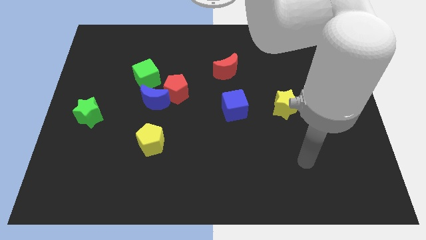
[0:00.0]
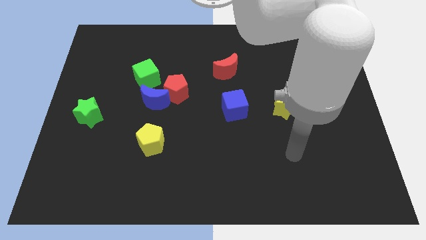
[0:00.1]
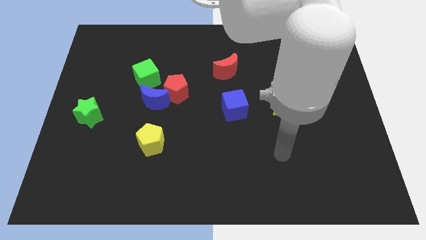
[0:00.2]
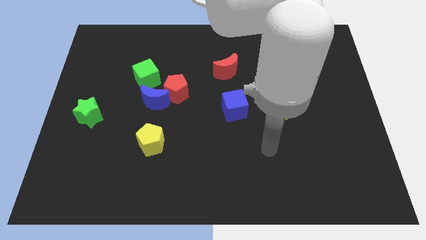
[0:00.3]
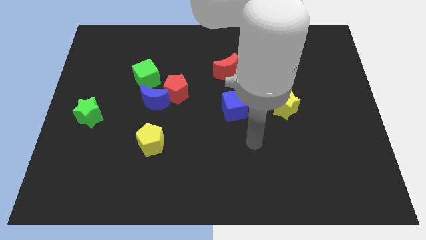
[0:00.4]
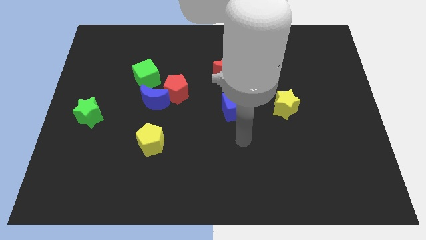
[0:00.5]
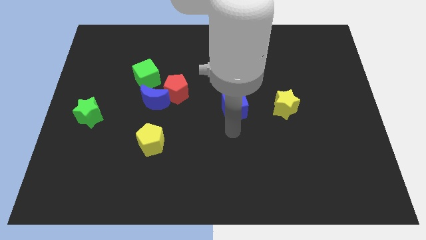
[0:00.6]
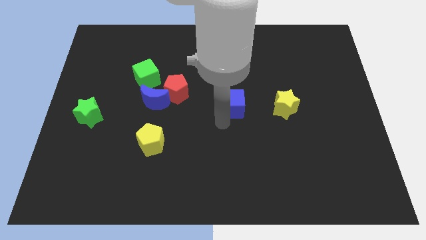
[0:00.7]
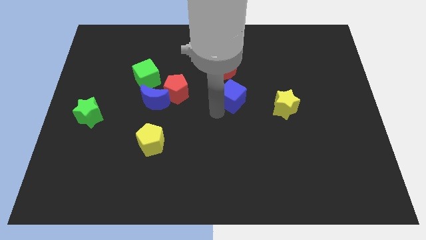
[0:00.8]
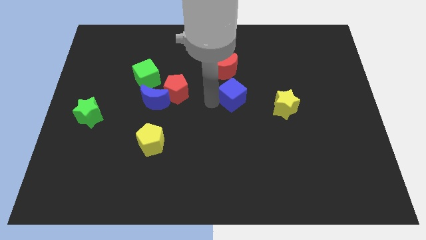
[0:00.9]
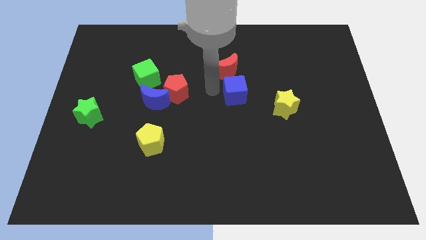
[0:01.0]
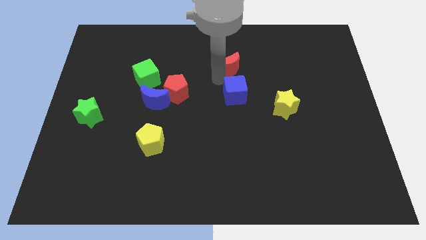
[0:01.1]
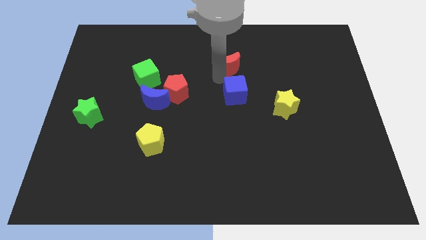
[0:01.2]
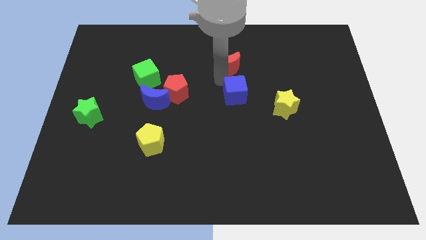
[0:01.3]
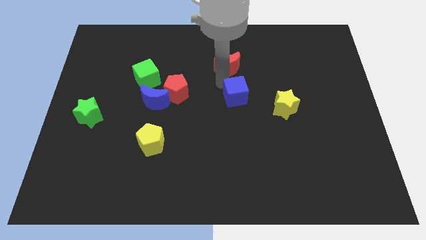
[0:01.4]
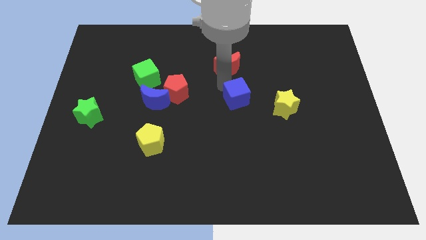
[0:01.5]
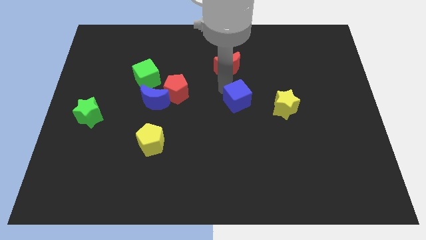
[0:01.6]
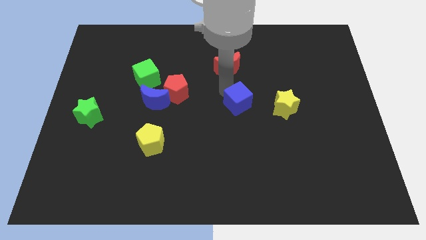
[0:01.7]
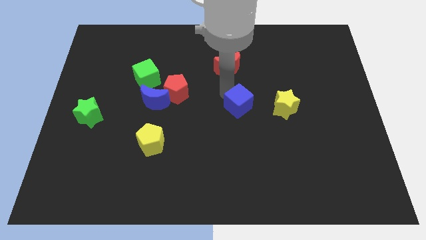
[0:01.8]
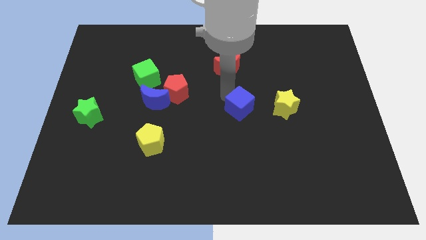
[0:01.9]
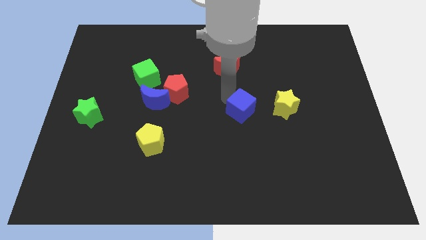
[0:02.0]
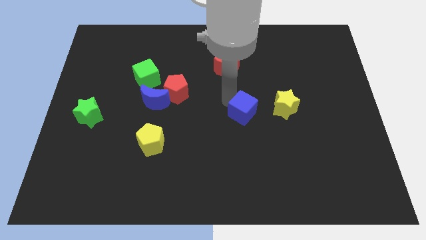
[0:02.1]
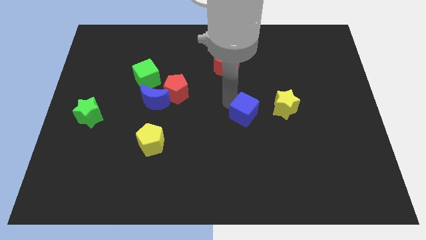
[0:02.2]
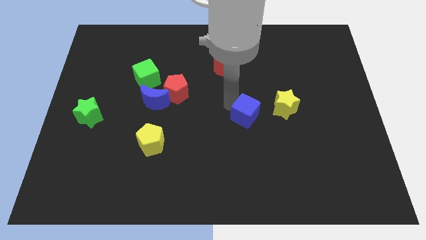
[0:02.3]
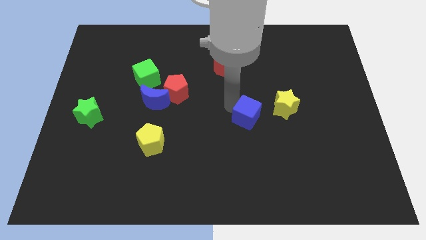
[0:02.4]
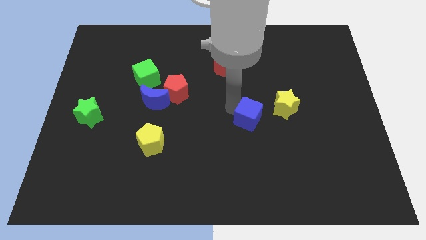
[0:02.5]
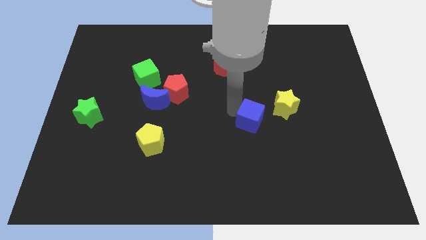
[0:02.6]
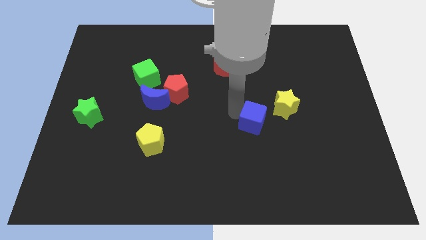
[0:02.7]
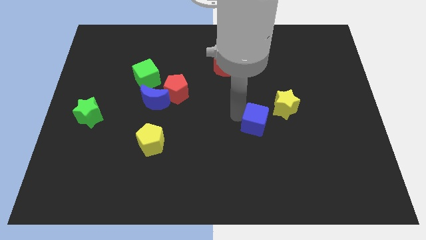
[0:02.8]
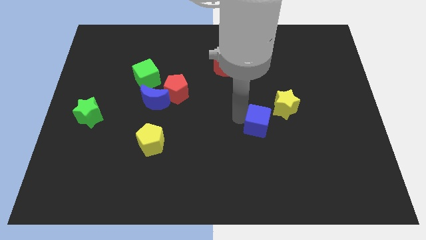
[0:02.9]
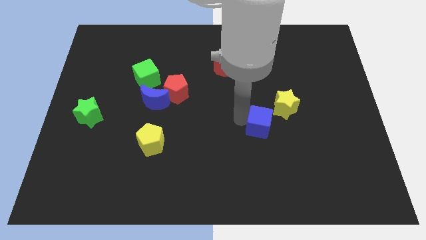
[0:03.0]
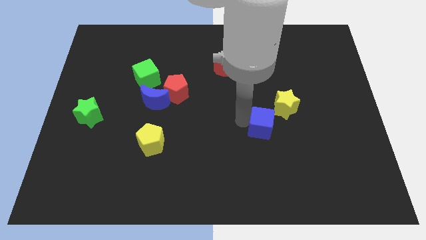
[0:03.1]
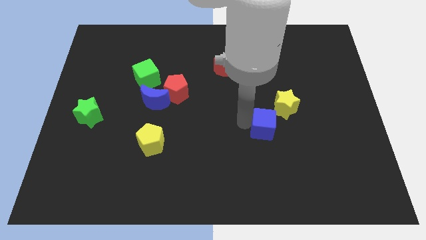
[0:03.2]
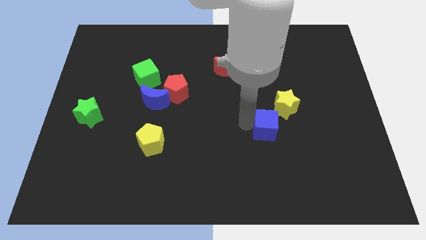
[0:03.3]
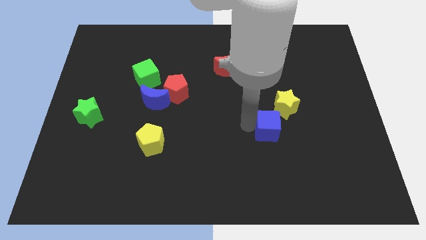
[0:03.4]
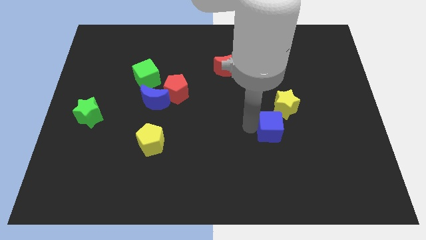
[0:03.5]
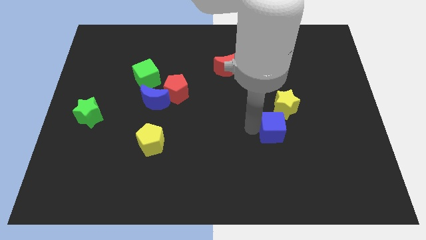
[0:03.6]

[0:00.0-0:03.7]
push the blue cube a little bit to the right

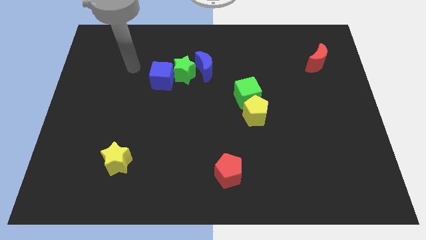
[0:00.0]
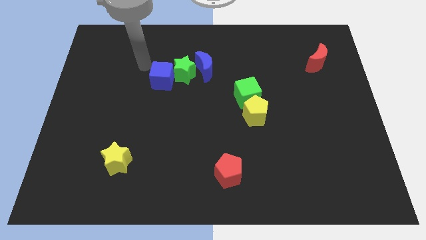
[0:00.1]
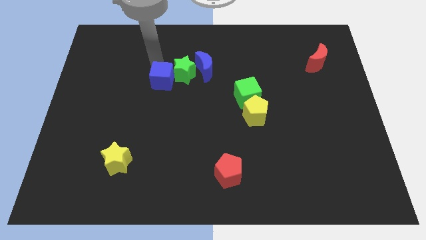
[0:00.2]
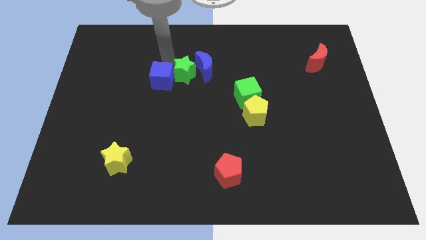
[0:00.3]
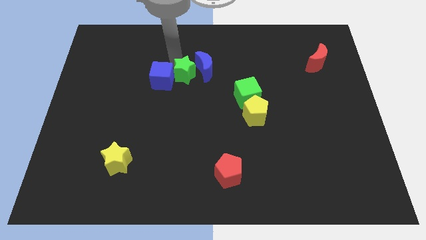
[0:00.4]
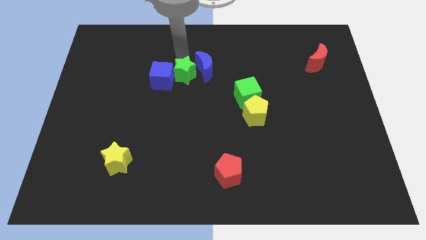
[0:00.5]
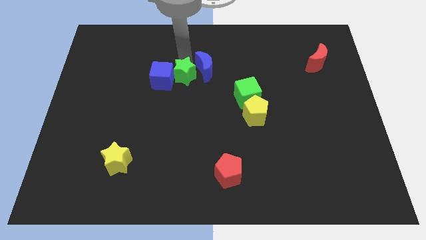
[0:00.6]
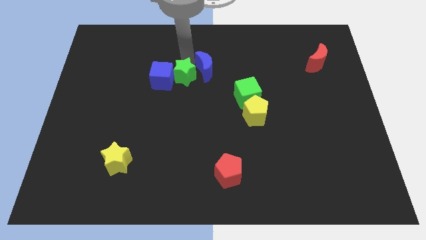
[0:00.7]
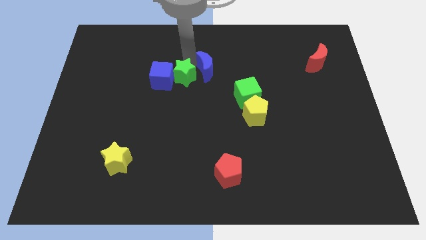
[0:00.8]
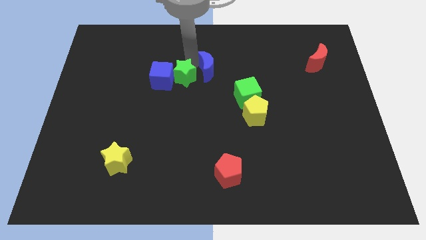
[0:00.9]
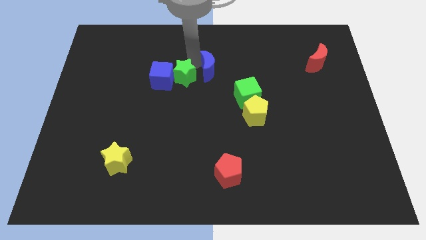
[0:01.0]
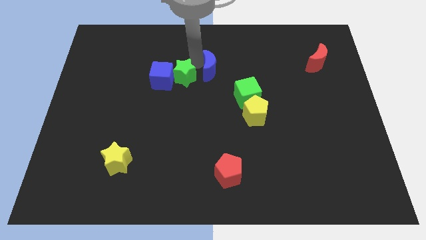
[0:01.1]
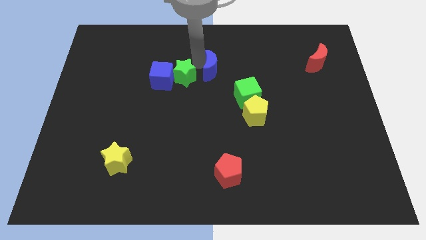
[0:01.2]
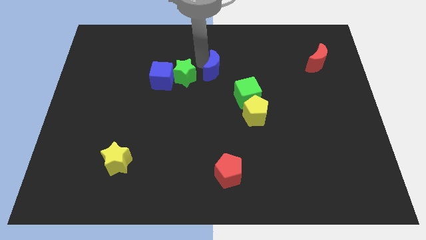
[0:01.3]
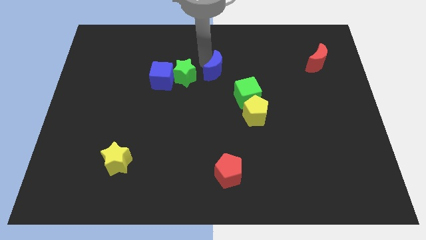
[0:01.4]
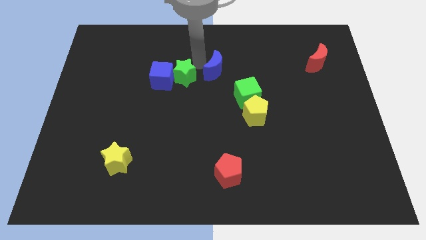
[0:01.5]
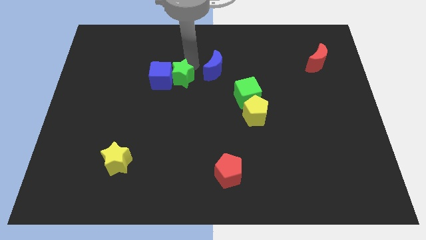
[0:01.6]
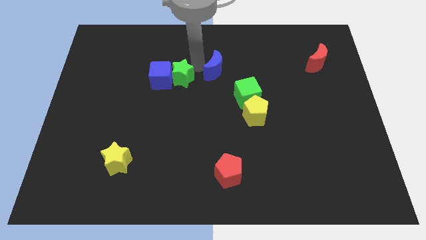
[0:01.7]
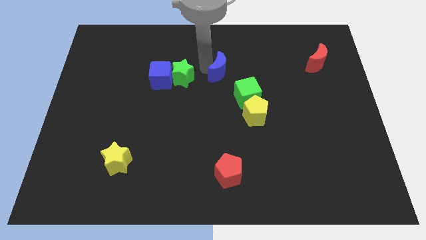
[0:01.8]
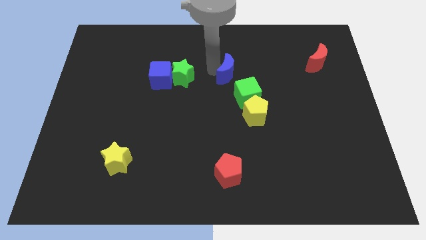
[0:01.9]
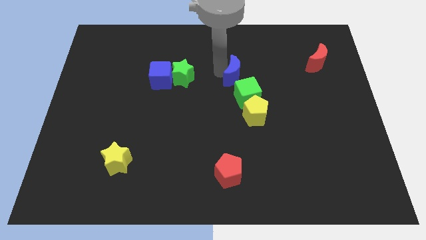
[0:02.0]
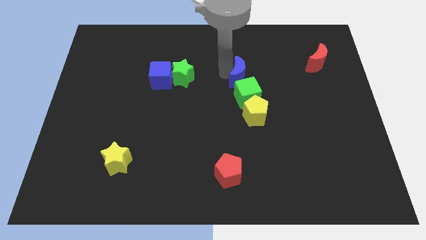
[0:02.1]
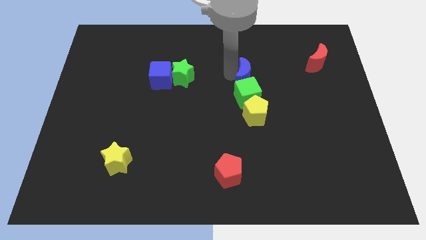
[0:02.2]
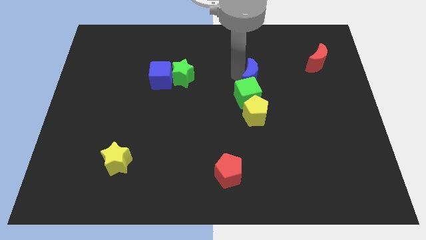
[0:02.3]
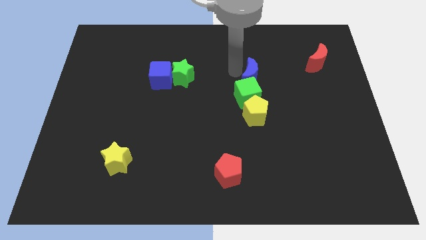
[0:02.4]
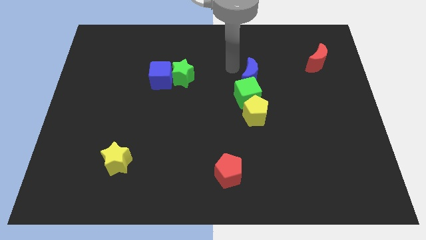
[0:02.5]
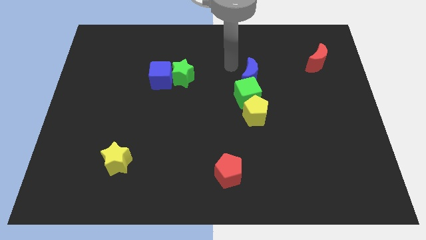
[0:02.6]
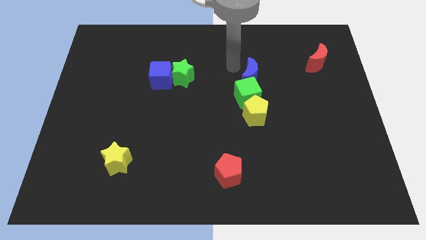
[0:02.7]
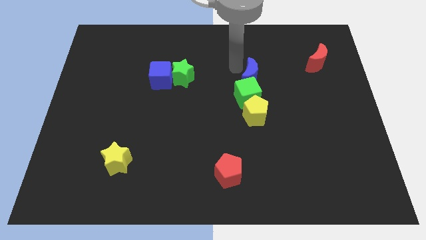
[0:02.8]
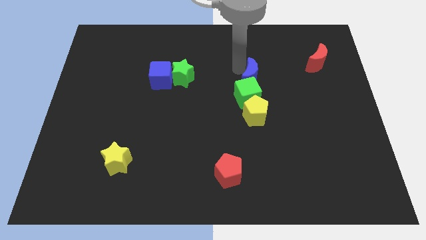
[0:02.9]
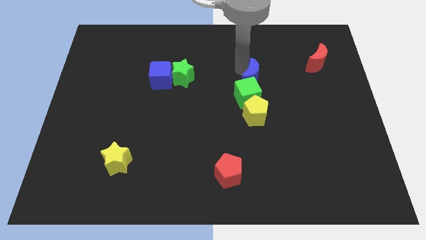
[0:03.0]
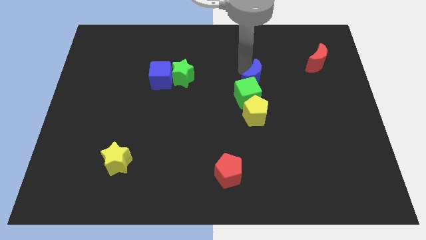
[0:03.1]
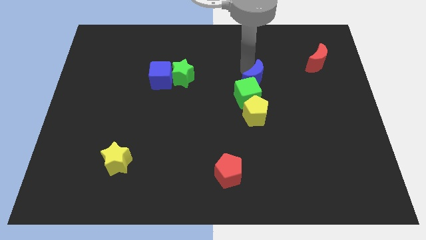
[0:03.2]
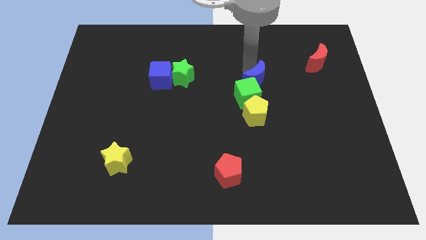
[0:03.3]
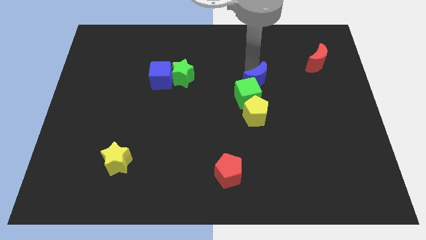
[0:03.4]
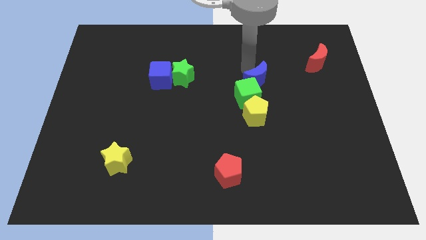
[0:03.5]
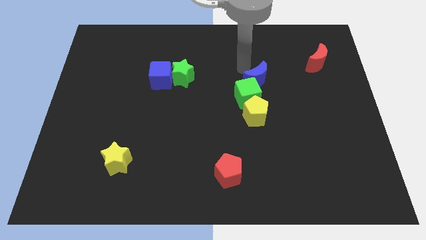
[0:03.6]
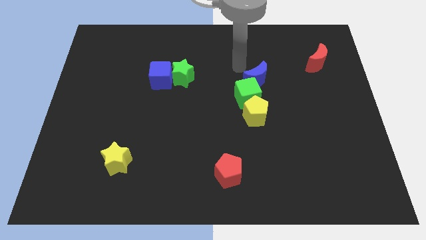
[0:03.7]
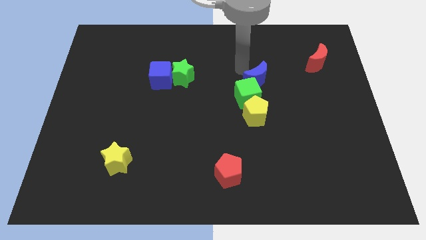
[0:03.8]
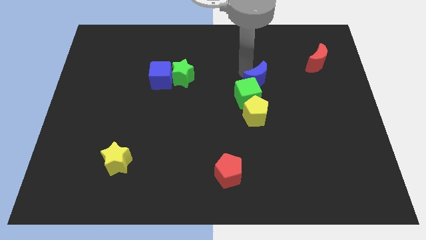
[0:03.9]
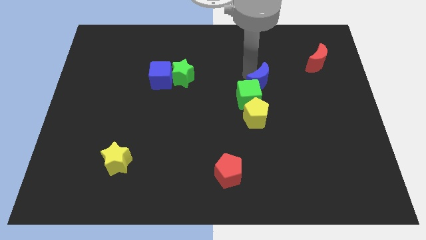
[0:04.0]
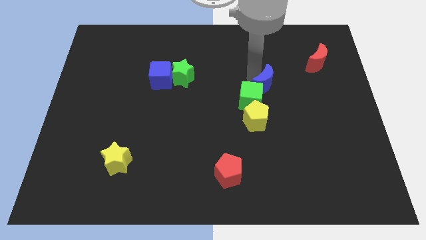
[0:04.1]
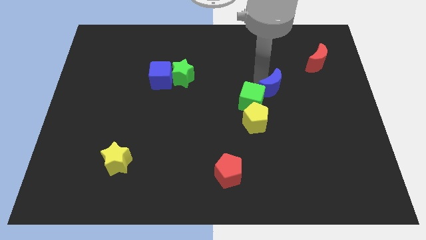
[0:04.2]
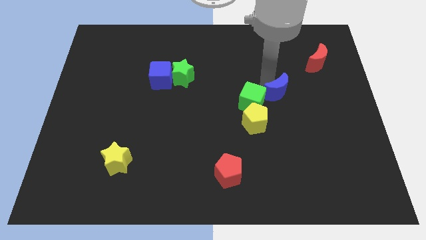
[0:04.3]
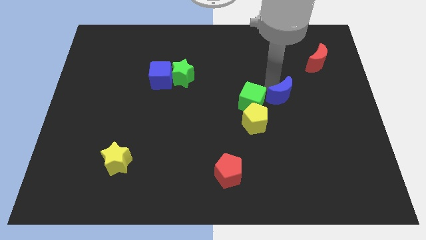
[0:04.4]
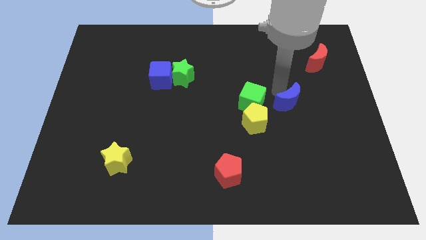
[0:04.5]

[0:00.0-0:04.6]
push the blue moon down and then right

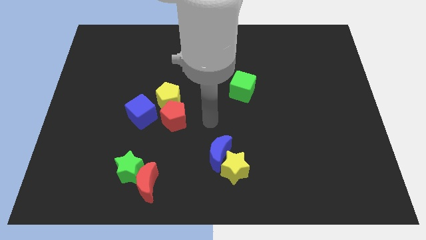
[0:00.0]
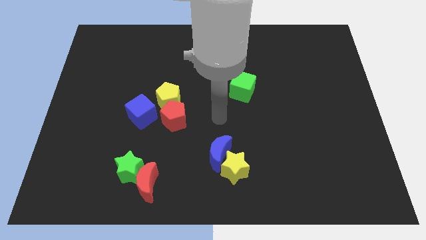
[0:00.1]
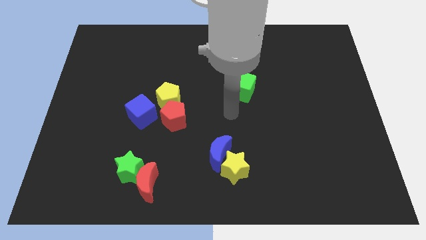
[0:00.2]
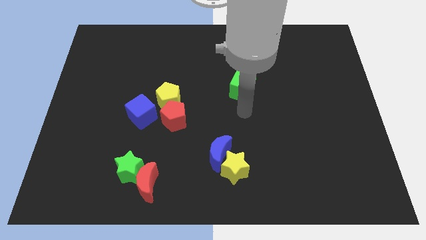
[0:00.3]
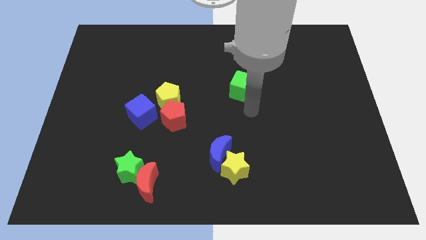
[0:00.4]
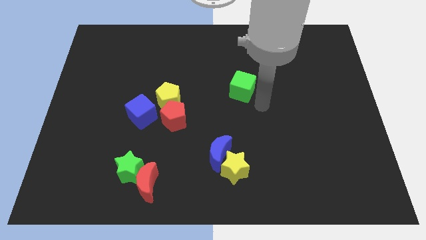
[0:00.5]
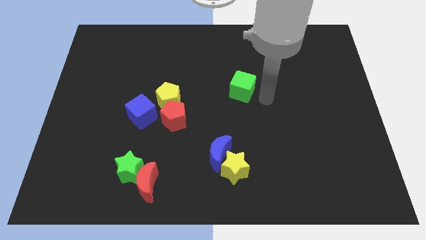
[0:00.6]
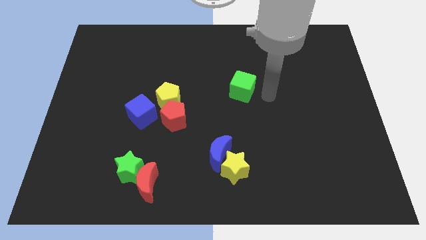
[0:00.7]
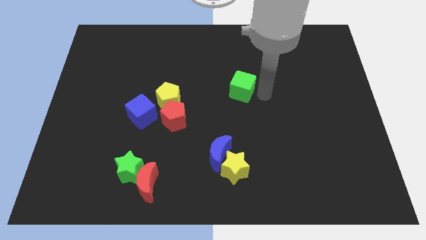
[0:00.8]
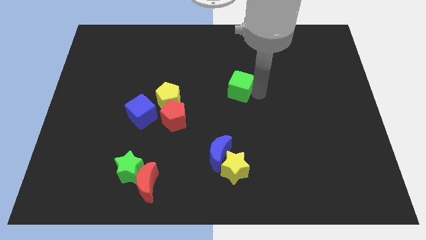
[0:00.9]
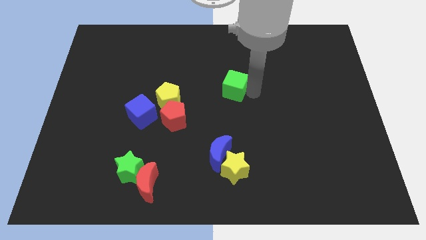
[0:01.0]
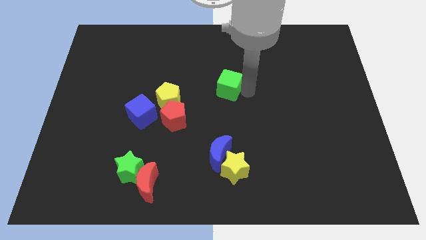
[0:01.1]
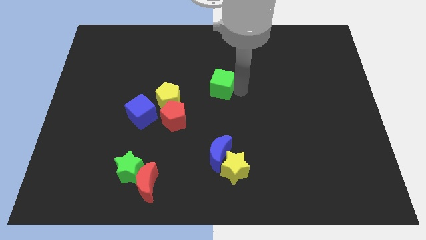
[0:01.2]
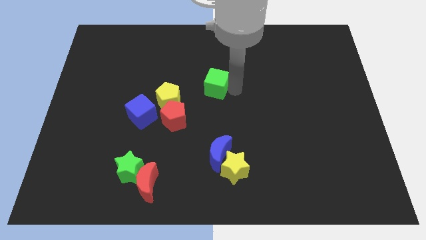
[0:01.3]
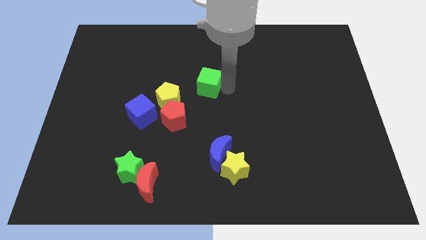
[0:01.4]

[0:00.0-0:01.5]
slide the green cube a little left
